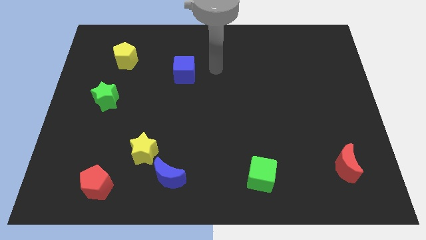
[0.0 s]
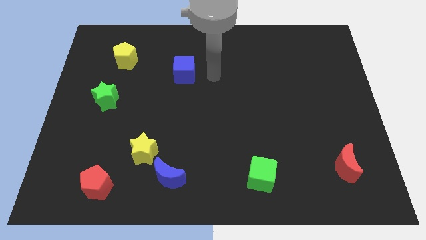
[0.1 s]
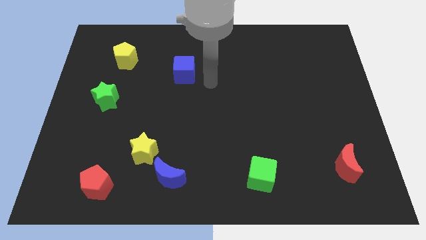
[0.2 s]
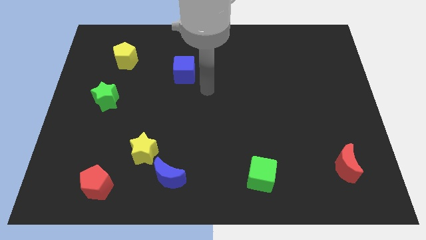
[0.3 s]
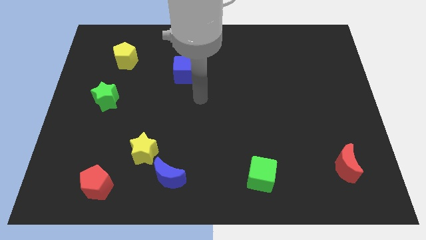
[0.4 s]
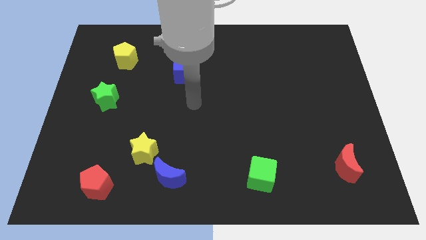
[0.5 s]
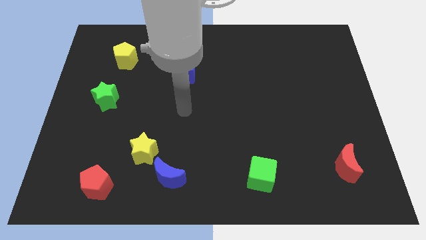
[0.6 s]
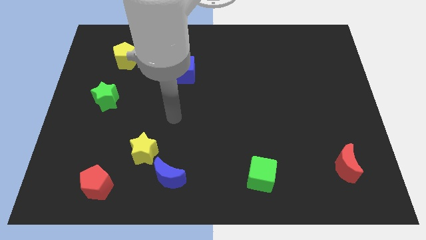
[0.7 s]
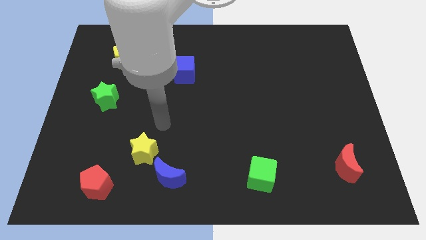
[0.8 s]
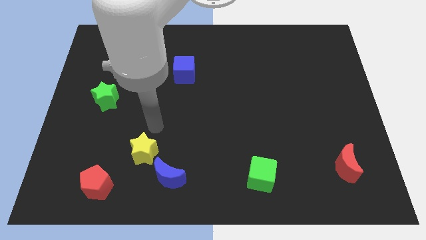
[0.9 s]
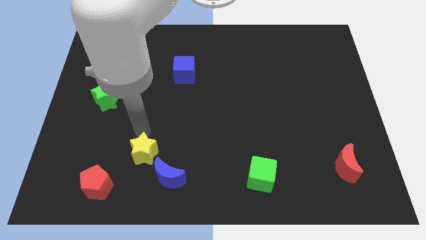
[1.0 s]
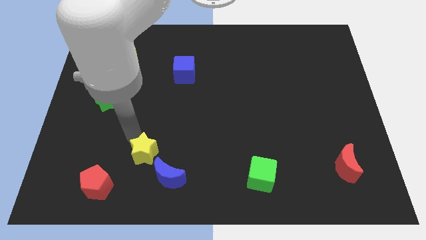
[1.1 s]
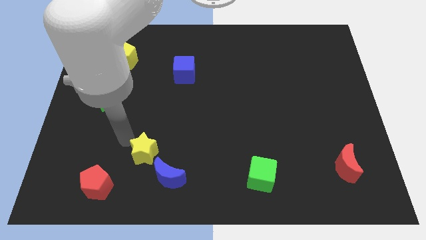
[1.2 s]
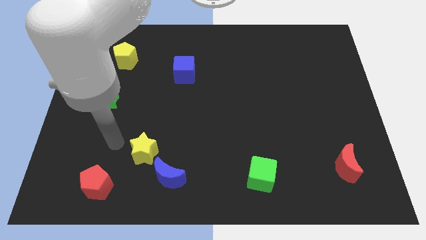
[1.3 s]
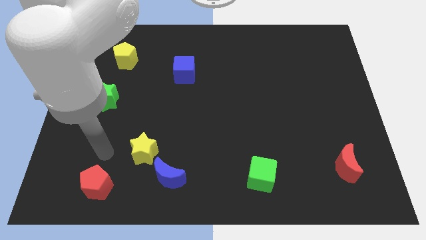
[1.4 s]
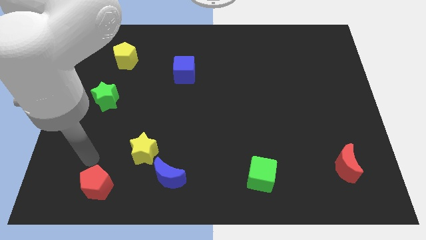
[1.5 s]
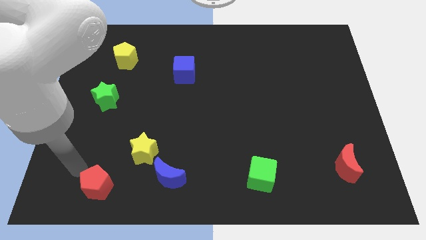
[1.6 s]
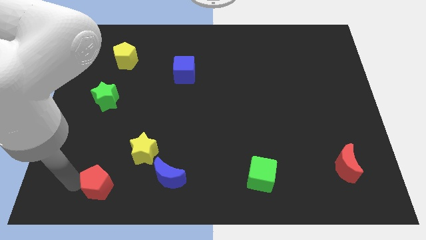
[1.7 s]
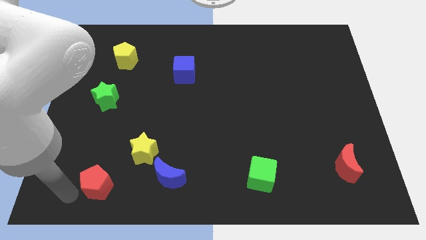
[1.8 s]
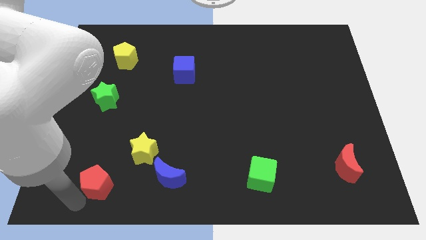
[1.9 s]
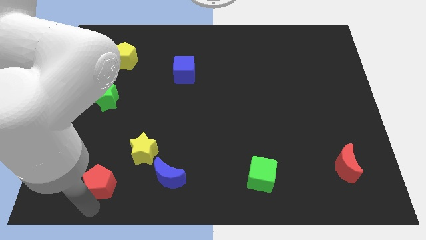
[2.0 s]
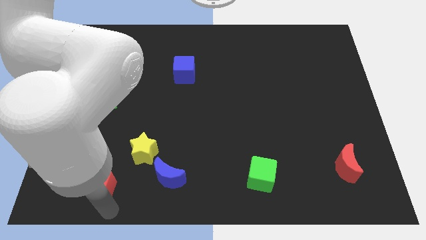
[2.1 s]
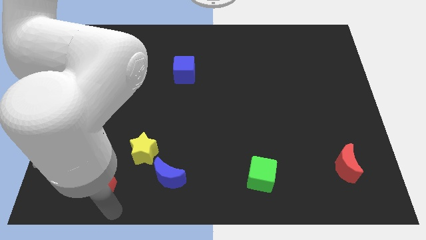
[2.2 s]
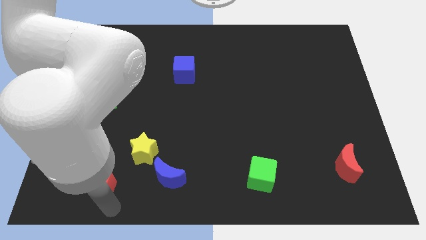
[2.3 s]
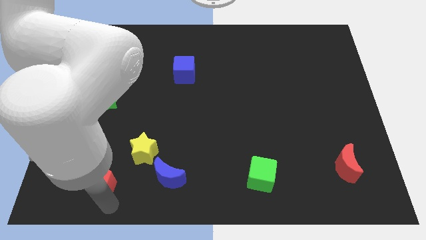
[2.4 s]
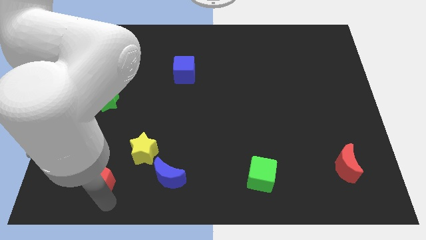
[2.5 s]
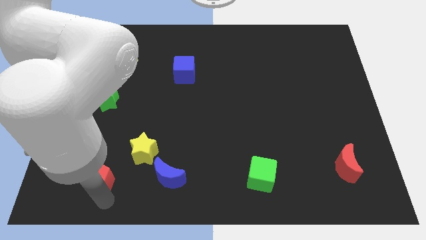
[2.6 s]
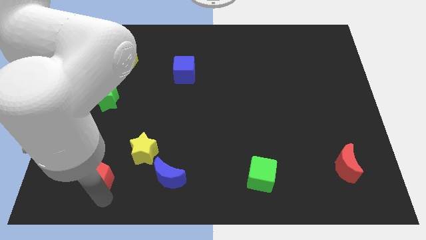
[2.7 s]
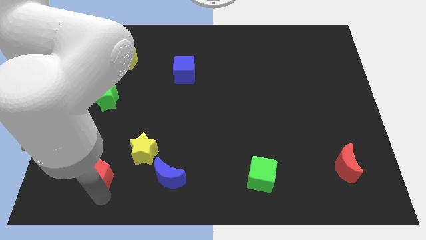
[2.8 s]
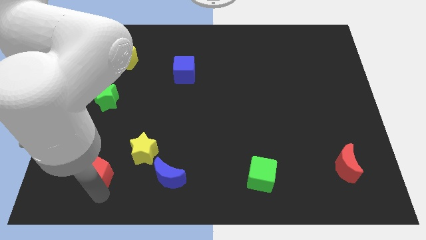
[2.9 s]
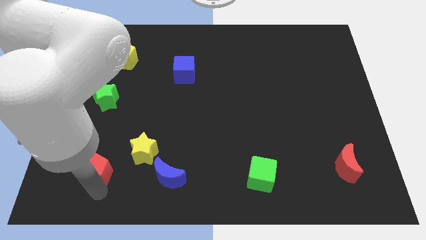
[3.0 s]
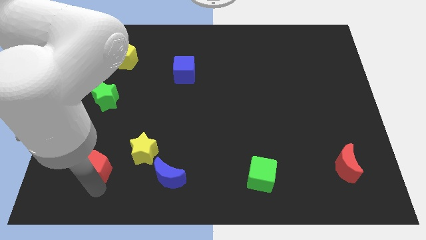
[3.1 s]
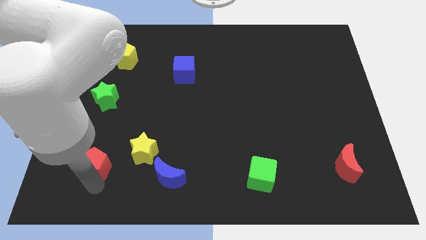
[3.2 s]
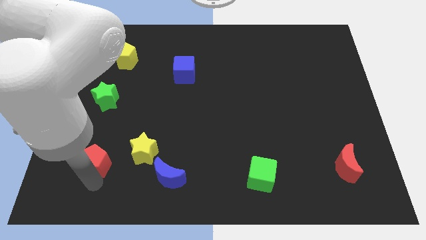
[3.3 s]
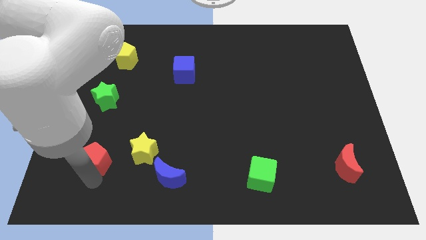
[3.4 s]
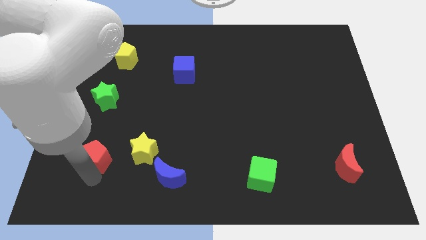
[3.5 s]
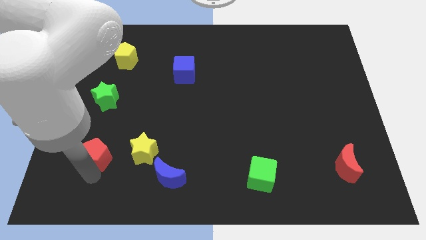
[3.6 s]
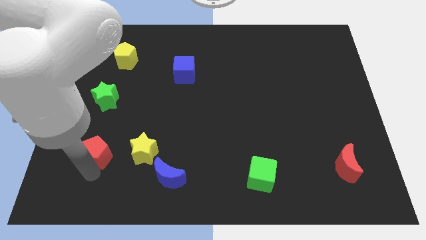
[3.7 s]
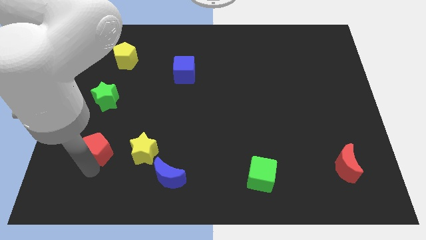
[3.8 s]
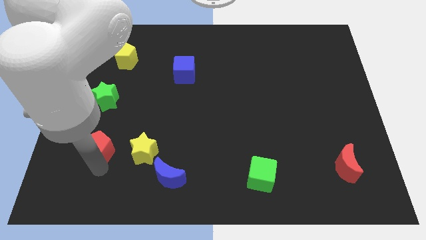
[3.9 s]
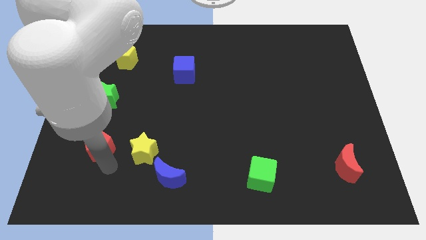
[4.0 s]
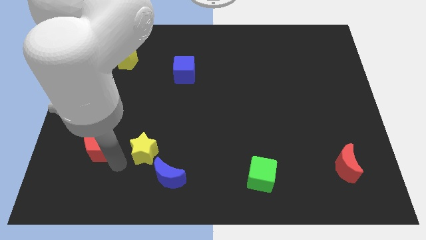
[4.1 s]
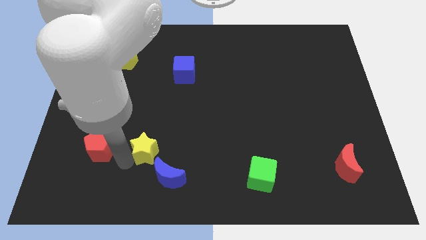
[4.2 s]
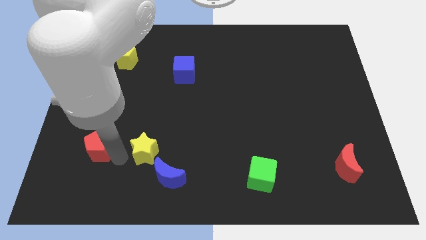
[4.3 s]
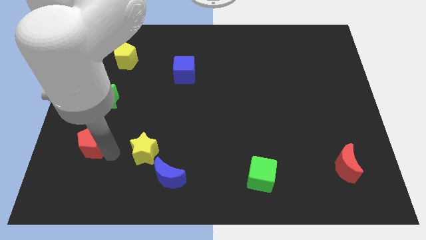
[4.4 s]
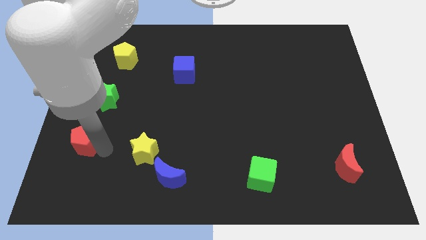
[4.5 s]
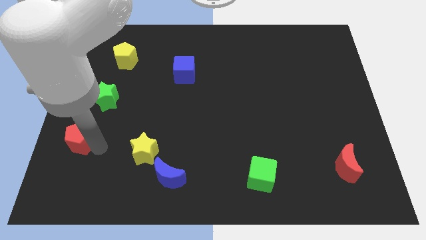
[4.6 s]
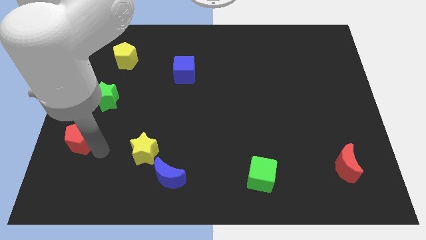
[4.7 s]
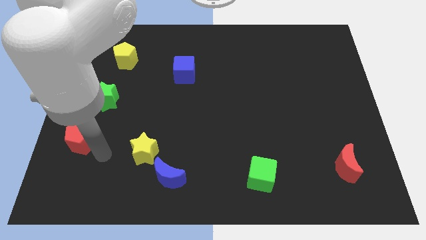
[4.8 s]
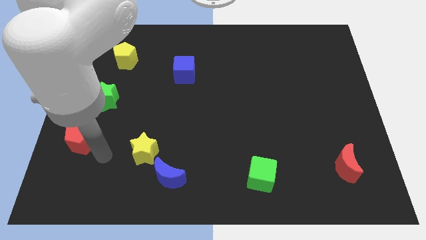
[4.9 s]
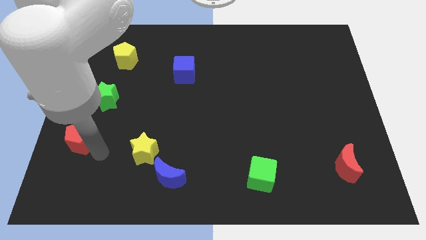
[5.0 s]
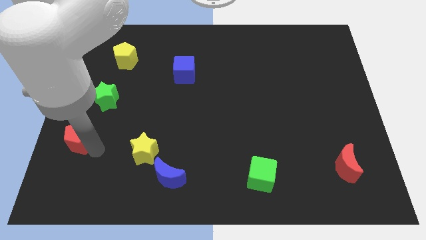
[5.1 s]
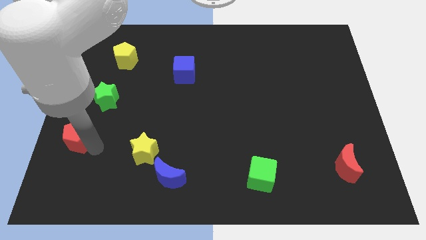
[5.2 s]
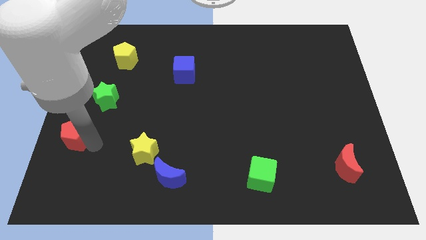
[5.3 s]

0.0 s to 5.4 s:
put the red pentagon to the left side
